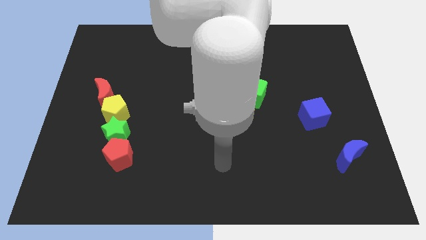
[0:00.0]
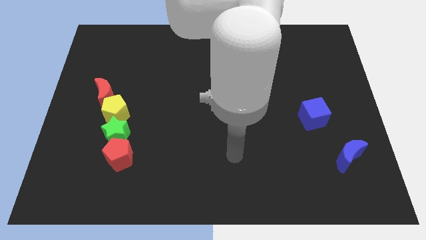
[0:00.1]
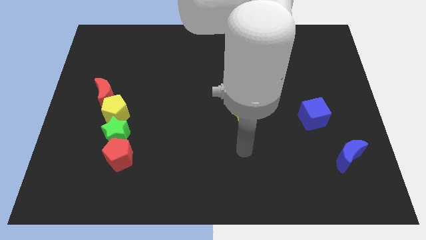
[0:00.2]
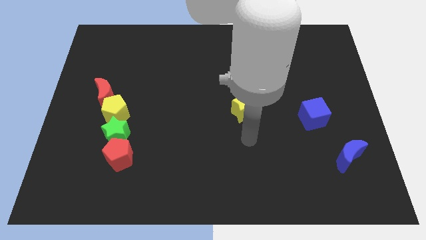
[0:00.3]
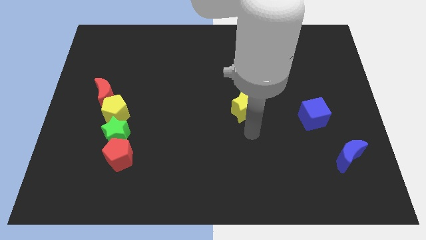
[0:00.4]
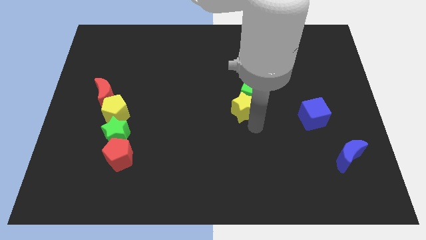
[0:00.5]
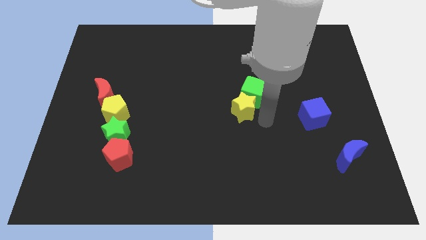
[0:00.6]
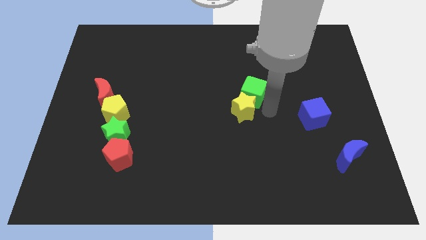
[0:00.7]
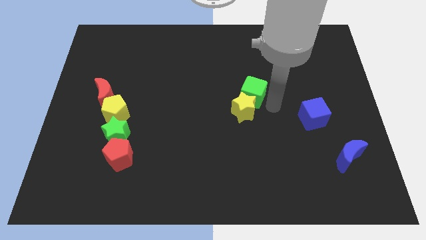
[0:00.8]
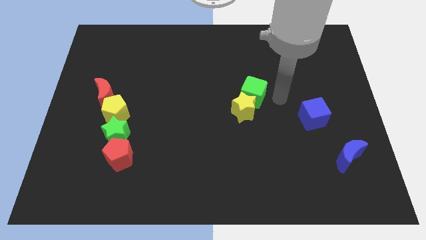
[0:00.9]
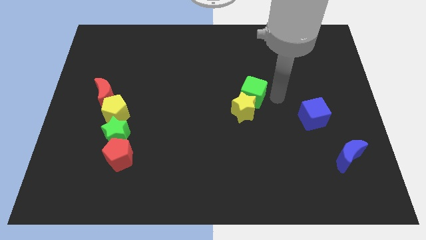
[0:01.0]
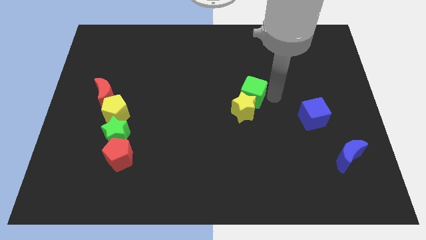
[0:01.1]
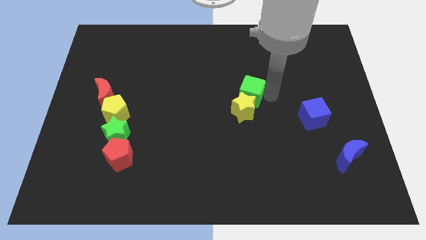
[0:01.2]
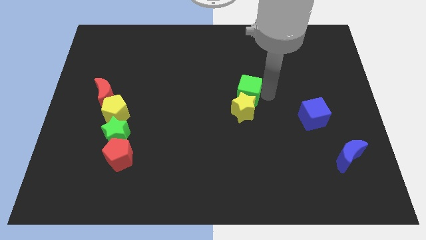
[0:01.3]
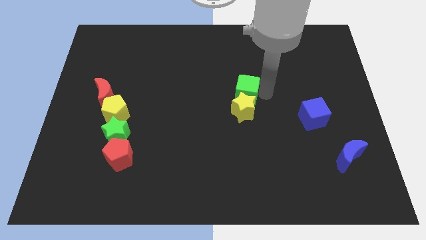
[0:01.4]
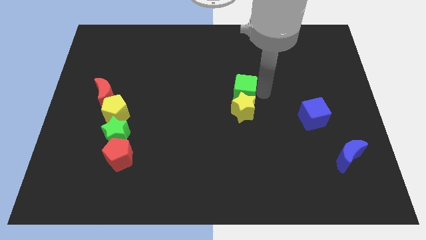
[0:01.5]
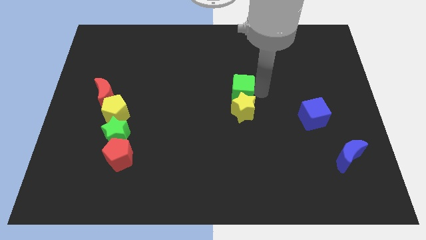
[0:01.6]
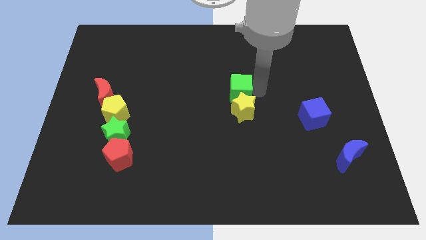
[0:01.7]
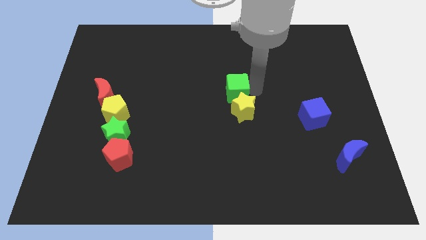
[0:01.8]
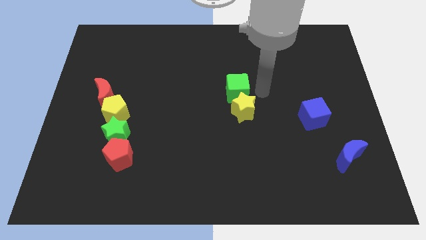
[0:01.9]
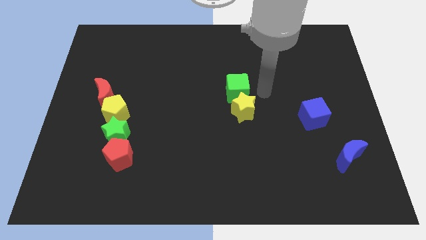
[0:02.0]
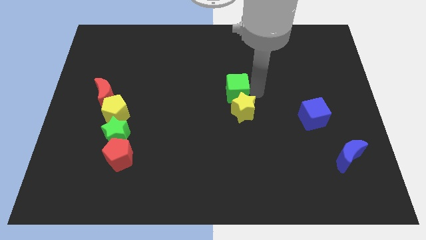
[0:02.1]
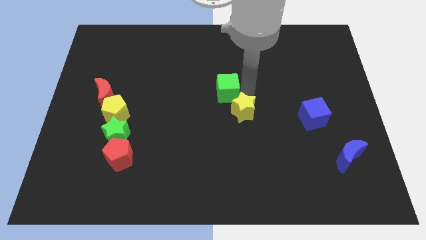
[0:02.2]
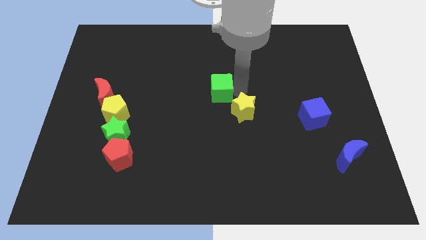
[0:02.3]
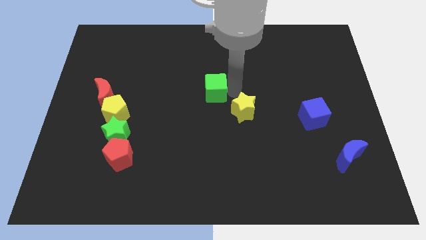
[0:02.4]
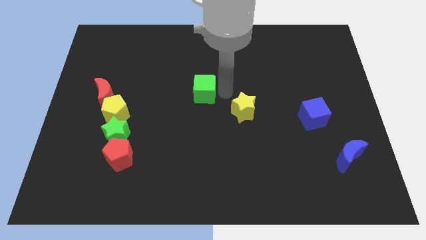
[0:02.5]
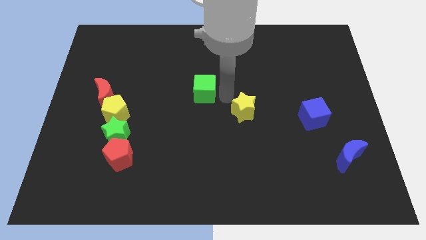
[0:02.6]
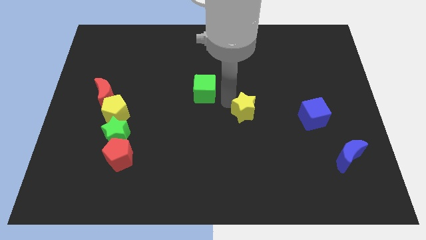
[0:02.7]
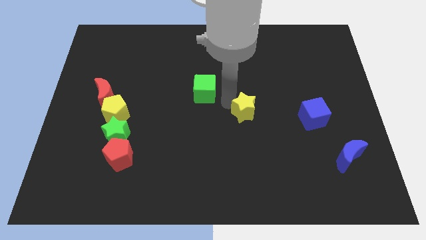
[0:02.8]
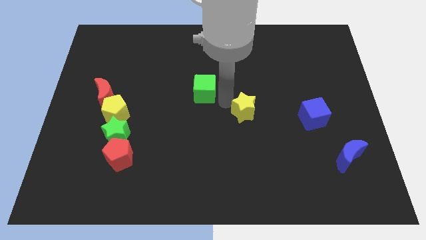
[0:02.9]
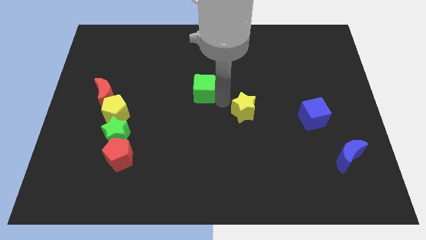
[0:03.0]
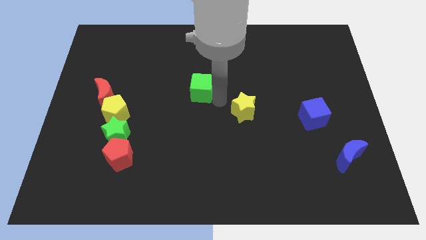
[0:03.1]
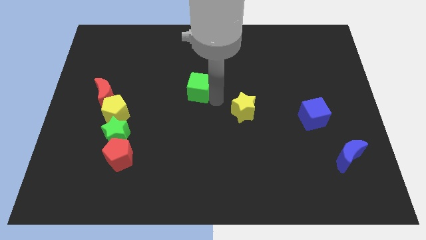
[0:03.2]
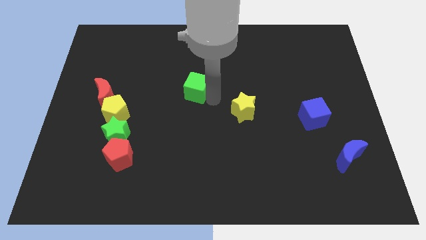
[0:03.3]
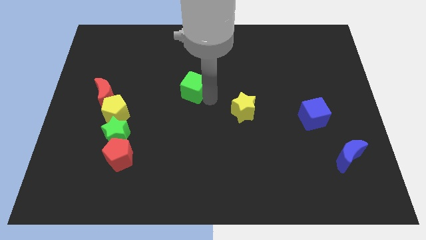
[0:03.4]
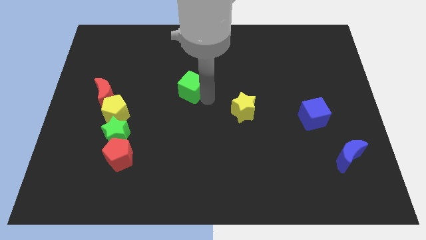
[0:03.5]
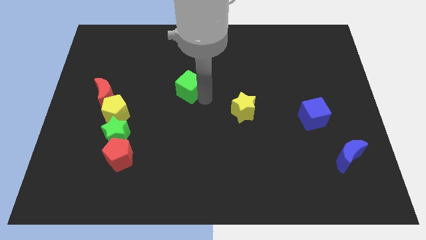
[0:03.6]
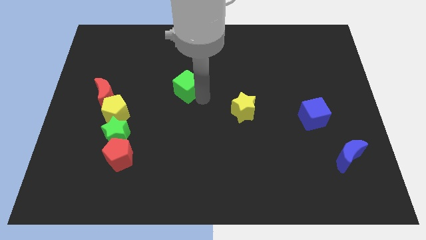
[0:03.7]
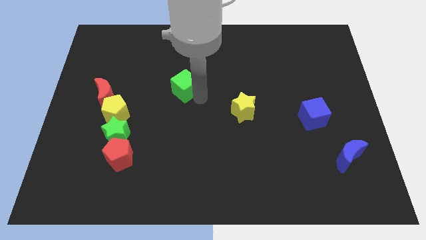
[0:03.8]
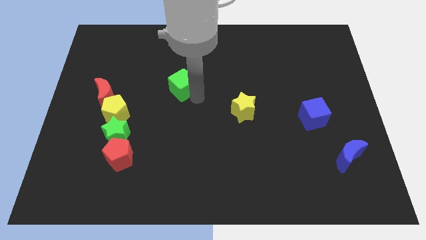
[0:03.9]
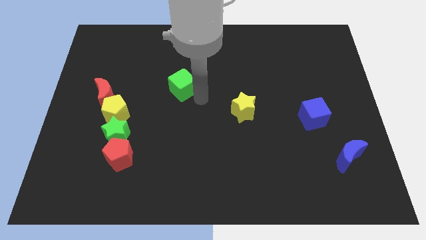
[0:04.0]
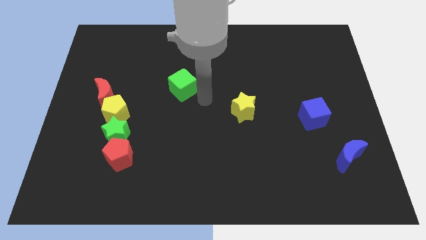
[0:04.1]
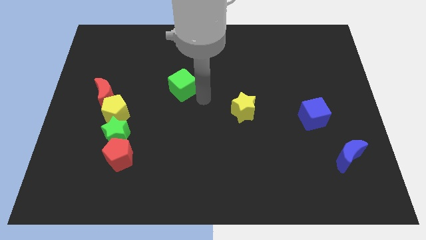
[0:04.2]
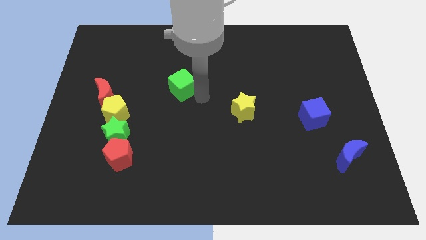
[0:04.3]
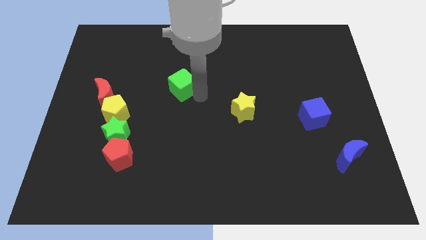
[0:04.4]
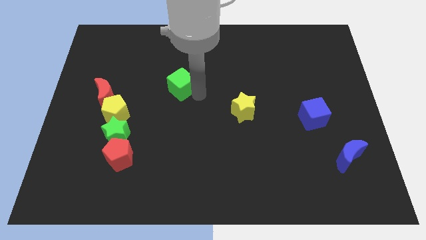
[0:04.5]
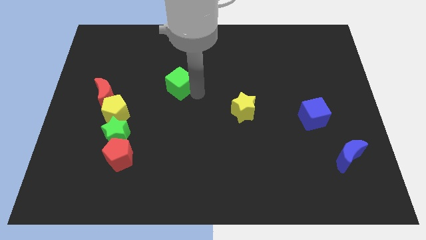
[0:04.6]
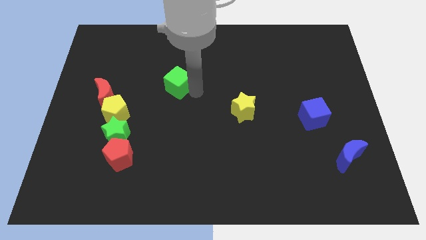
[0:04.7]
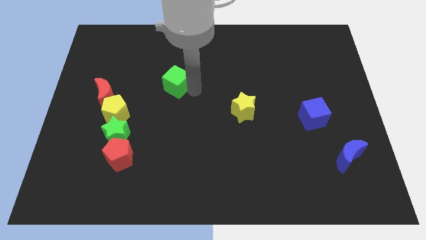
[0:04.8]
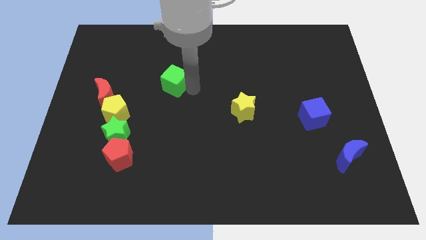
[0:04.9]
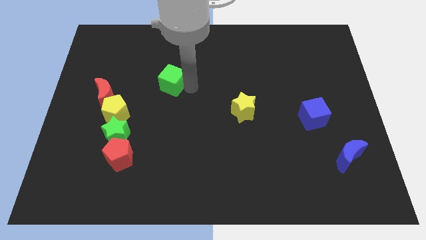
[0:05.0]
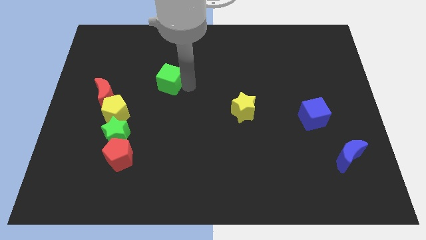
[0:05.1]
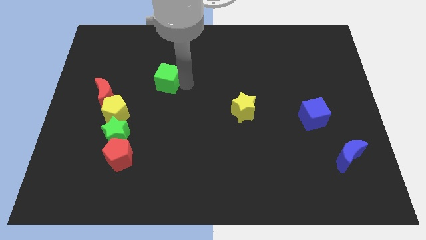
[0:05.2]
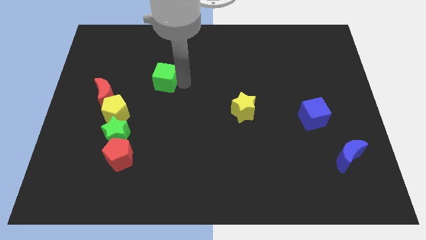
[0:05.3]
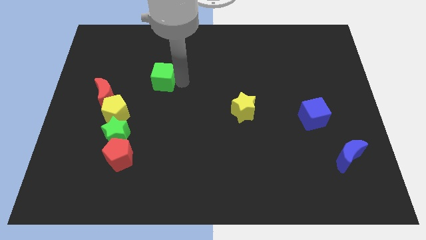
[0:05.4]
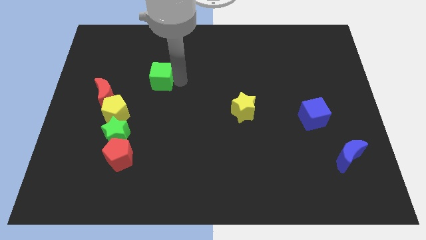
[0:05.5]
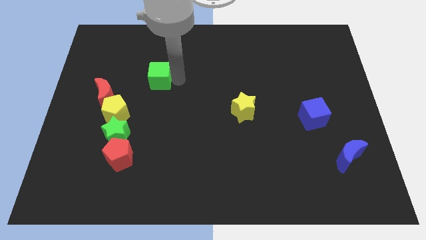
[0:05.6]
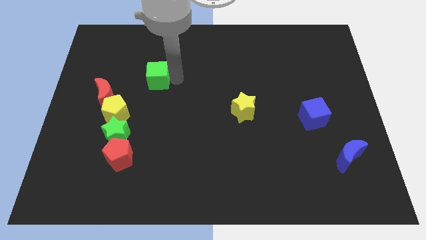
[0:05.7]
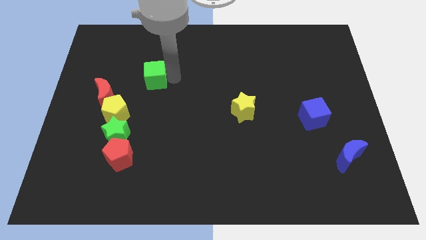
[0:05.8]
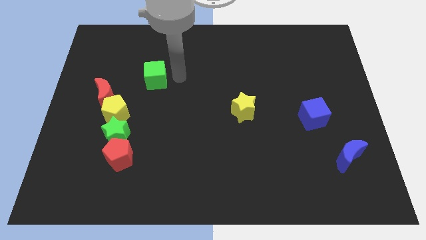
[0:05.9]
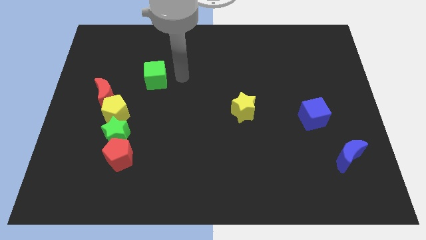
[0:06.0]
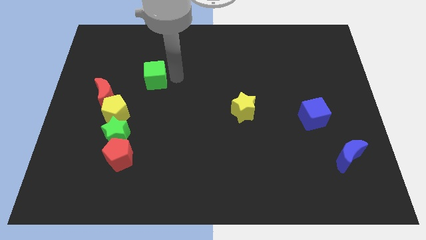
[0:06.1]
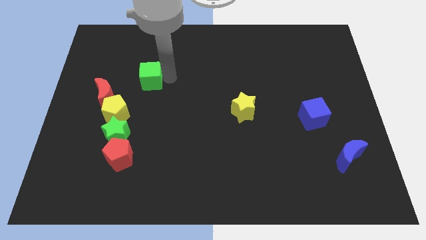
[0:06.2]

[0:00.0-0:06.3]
move the green cube to the top right of the red moon

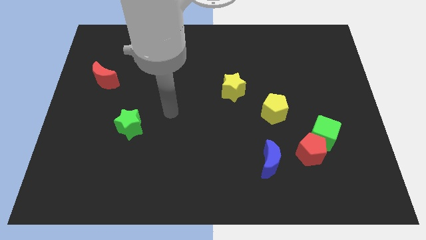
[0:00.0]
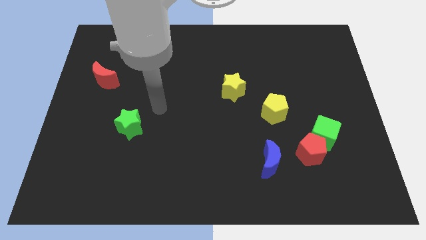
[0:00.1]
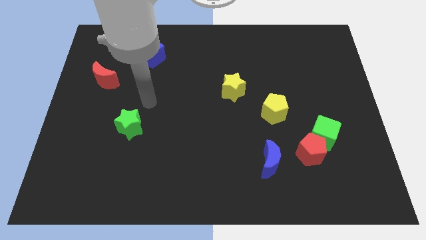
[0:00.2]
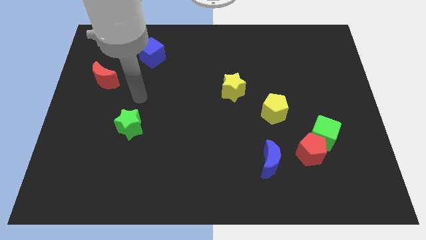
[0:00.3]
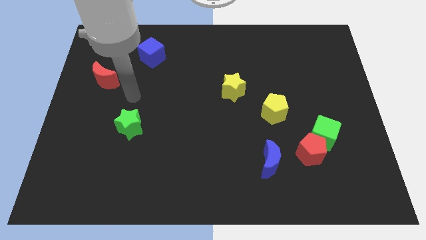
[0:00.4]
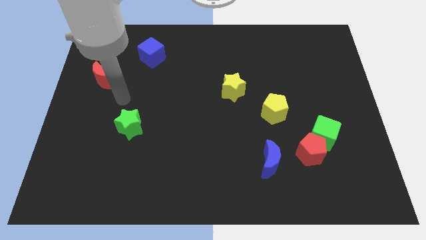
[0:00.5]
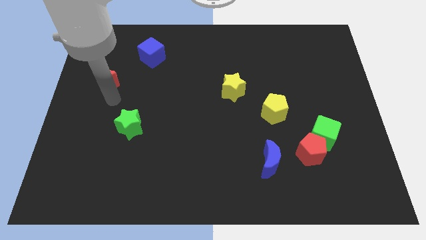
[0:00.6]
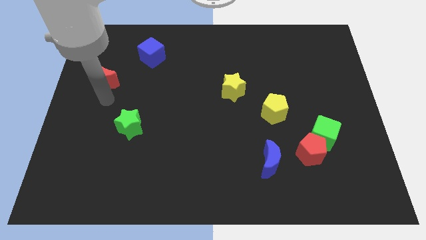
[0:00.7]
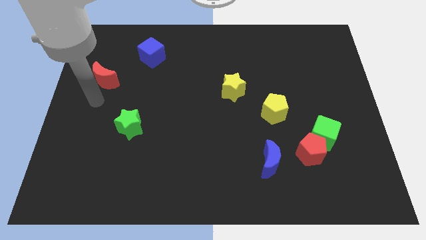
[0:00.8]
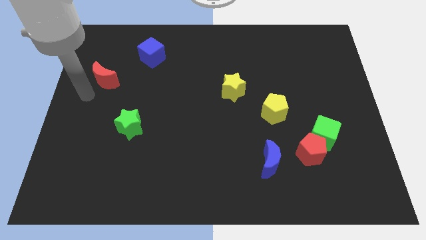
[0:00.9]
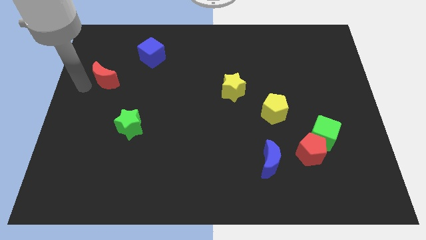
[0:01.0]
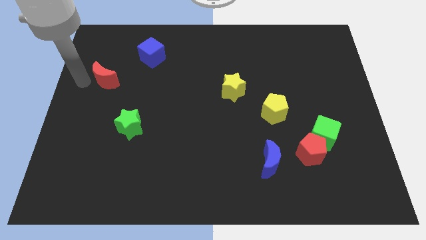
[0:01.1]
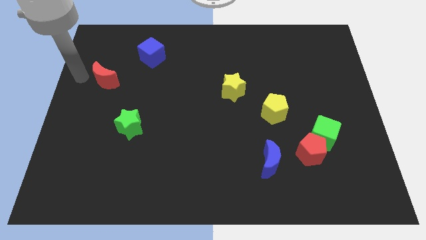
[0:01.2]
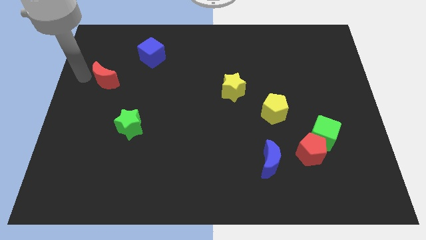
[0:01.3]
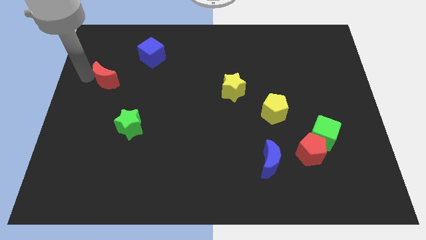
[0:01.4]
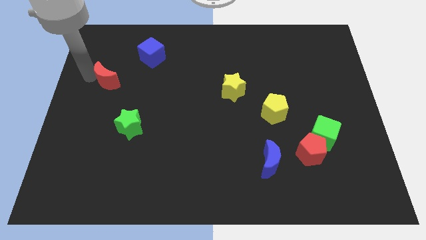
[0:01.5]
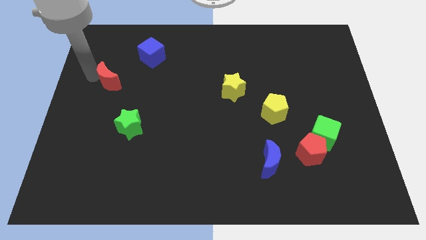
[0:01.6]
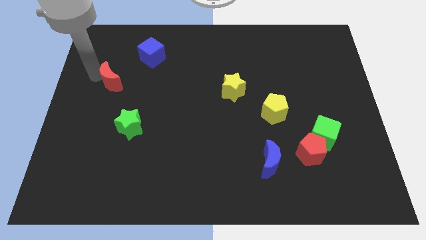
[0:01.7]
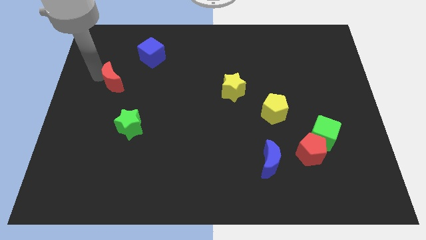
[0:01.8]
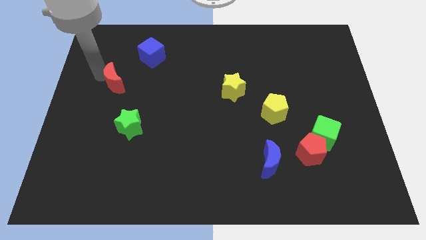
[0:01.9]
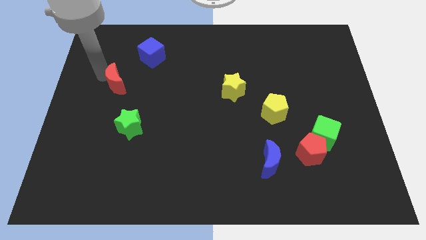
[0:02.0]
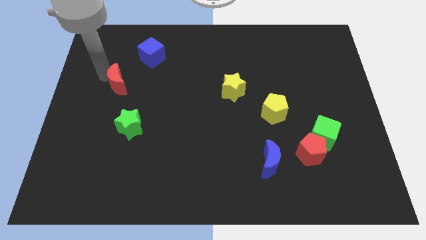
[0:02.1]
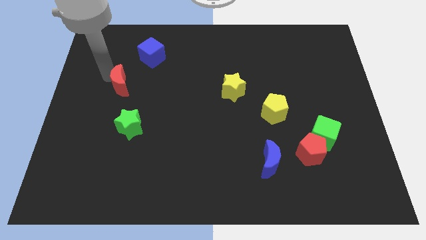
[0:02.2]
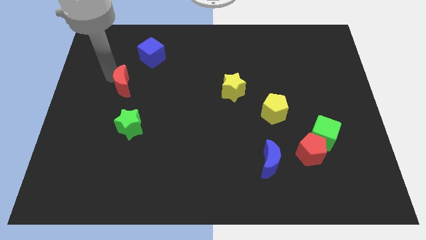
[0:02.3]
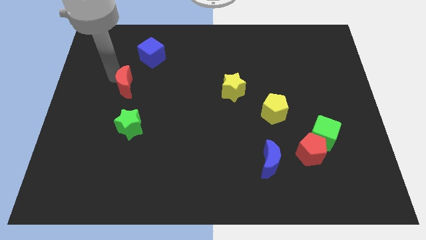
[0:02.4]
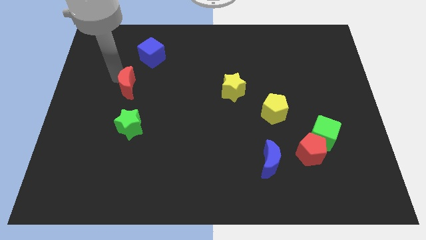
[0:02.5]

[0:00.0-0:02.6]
move the red moon to the bottom of the blue cube
